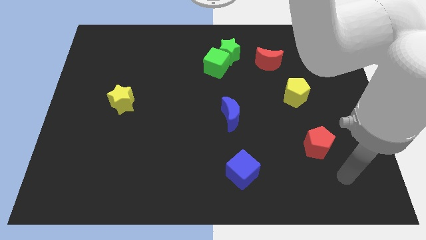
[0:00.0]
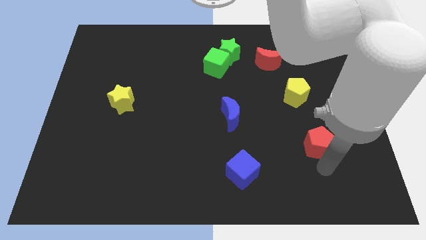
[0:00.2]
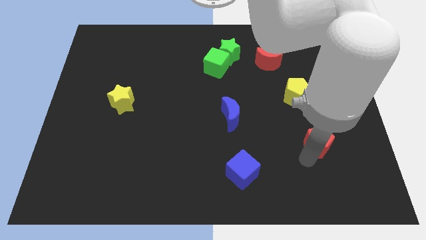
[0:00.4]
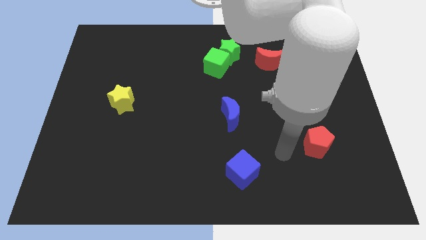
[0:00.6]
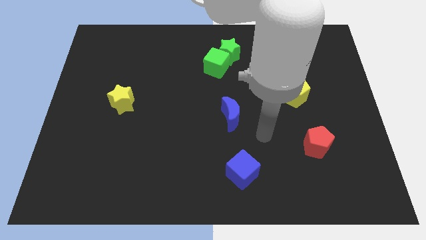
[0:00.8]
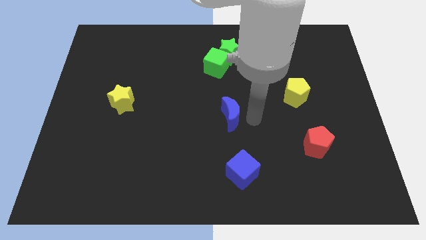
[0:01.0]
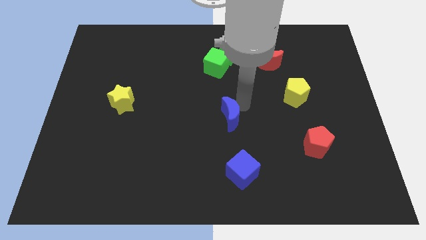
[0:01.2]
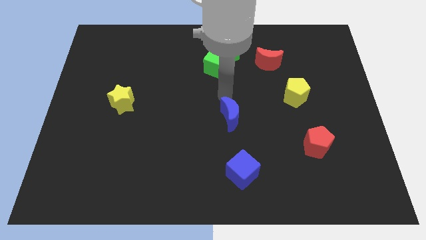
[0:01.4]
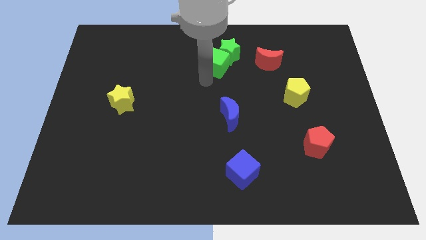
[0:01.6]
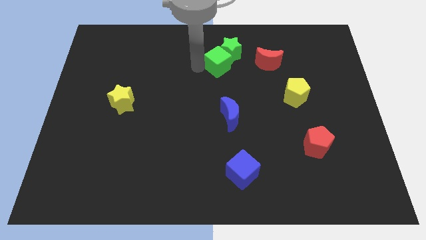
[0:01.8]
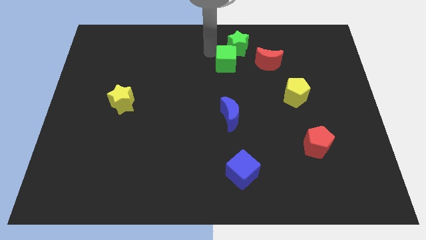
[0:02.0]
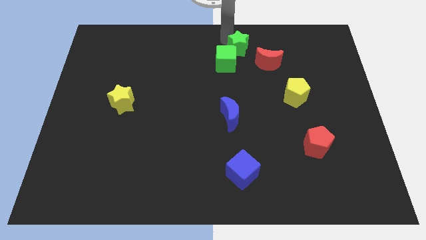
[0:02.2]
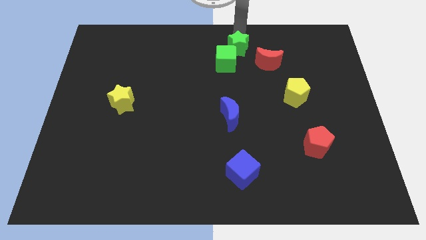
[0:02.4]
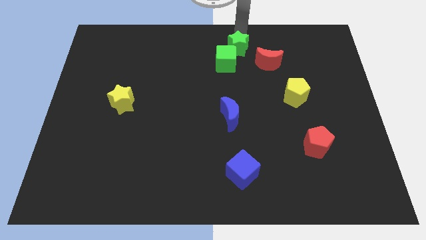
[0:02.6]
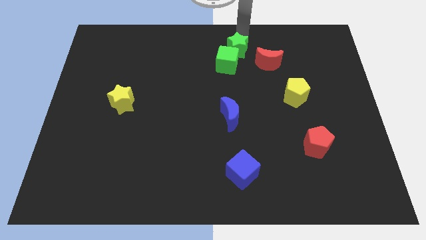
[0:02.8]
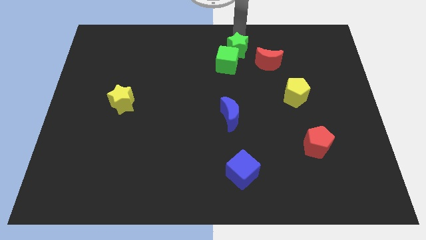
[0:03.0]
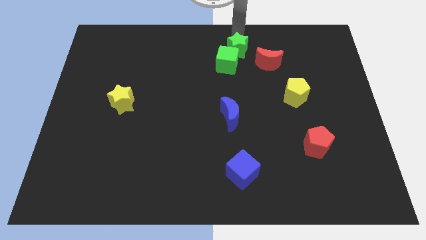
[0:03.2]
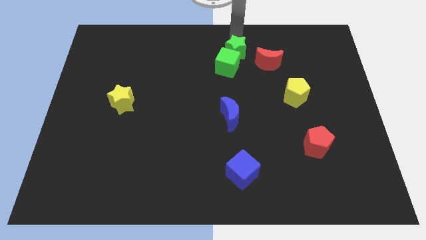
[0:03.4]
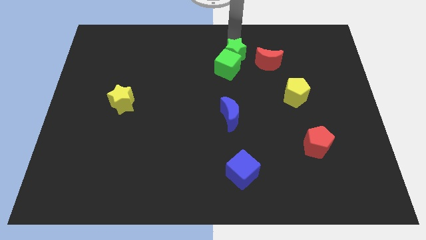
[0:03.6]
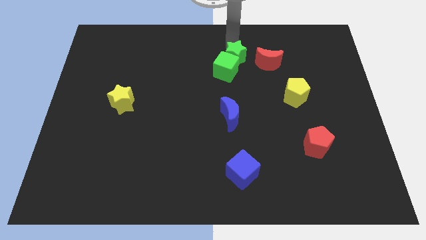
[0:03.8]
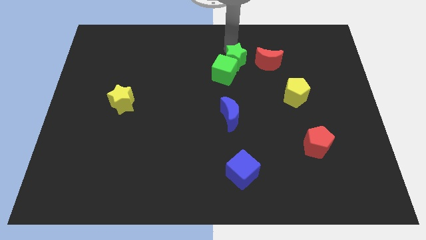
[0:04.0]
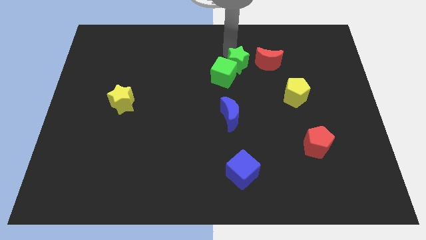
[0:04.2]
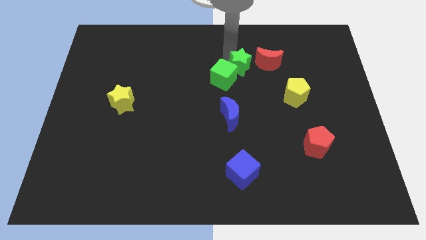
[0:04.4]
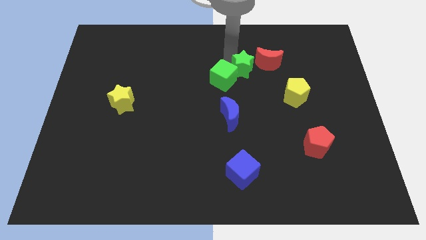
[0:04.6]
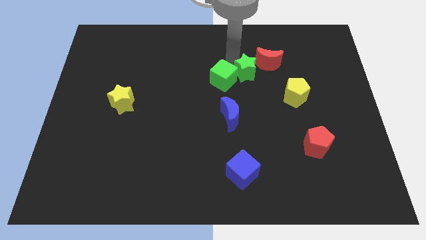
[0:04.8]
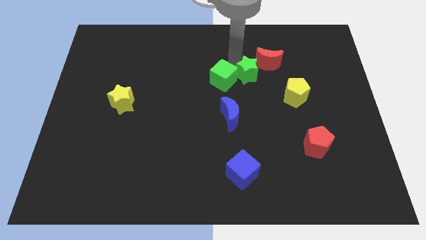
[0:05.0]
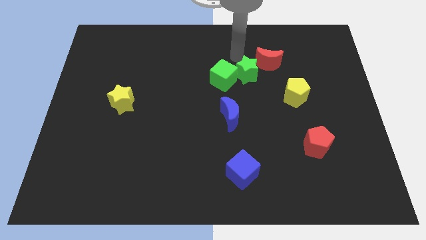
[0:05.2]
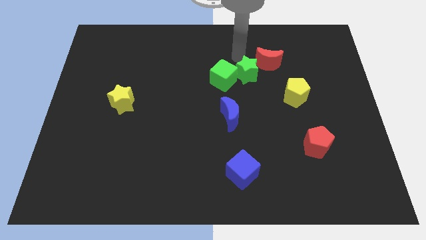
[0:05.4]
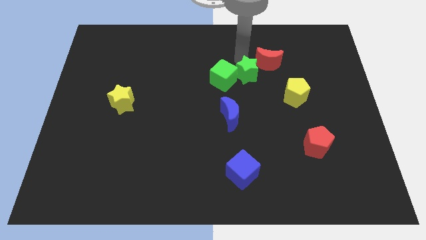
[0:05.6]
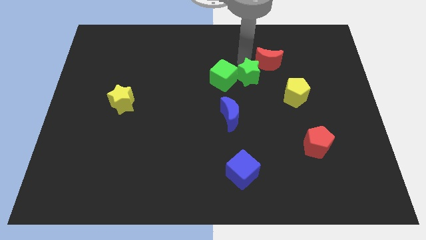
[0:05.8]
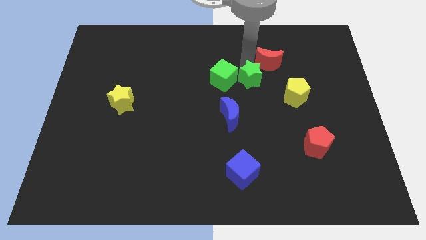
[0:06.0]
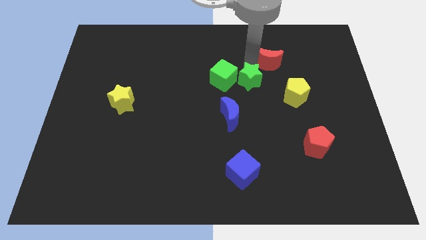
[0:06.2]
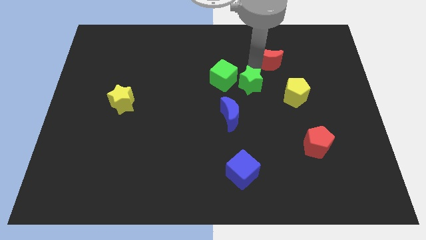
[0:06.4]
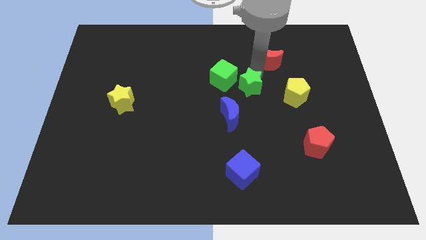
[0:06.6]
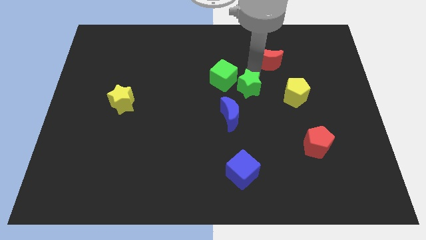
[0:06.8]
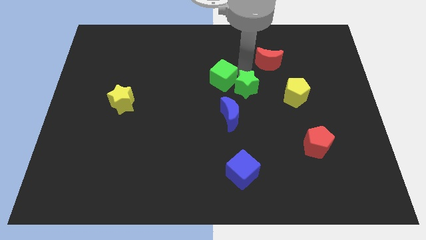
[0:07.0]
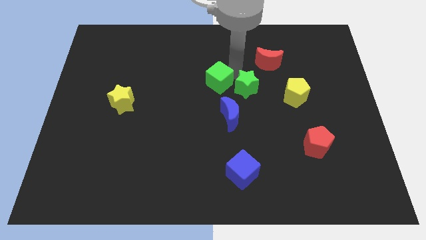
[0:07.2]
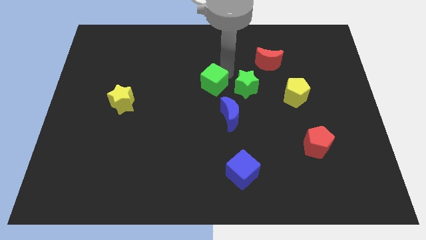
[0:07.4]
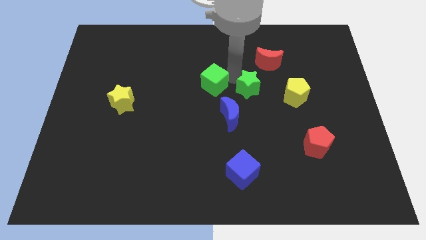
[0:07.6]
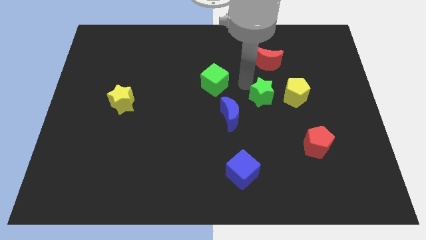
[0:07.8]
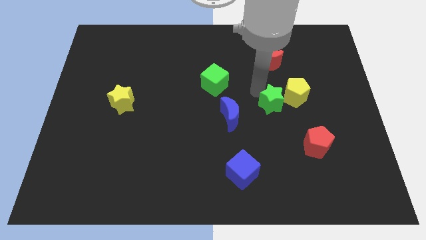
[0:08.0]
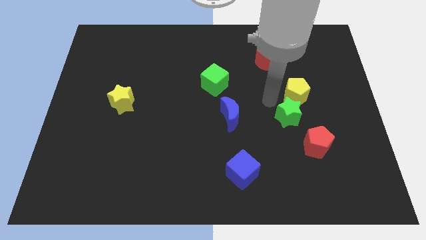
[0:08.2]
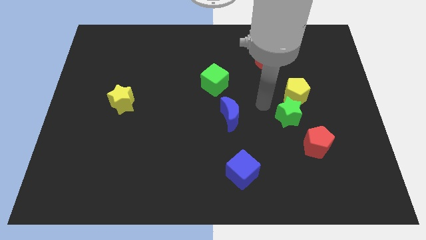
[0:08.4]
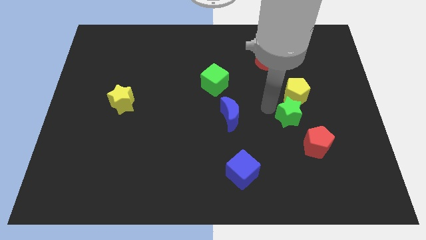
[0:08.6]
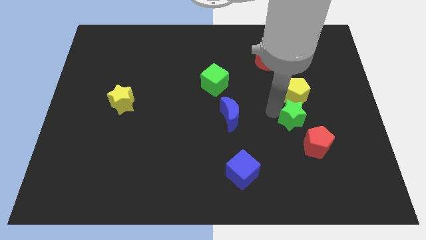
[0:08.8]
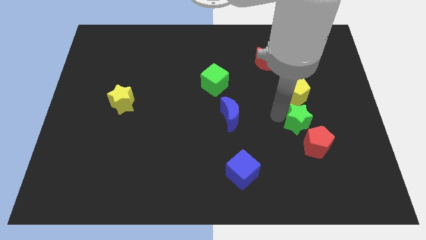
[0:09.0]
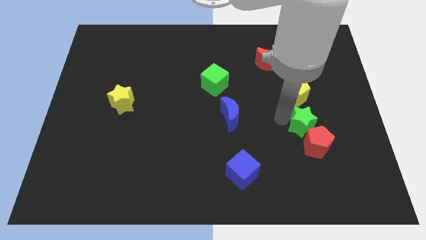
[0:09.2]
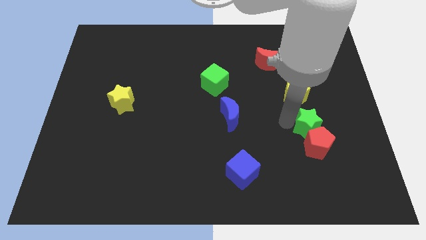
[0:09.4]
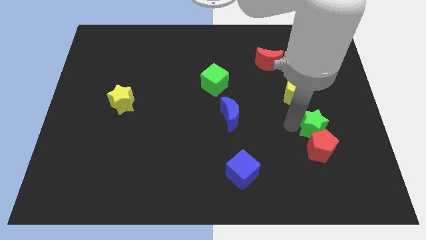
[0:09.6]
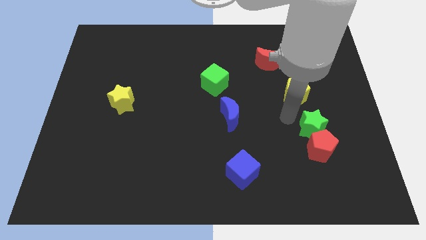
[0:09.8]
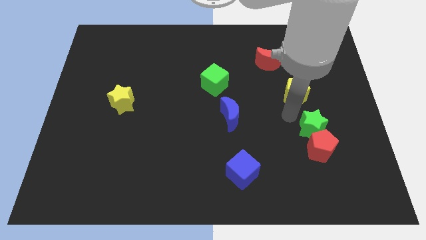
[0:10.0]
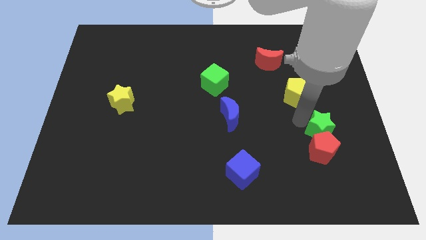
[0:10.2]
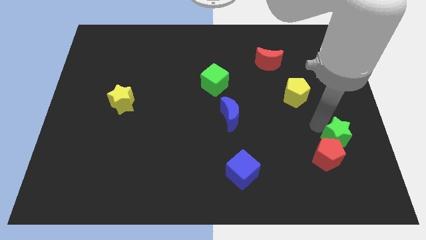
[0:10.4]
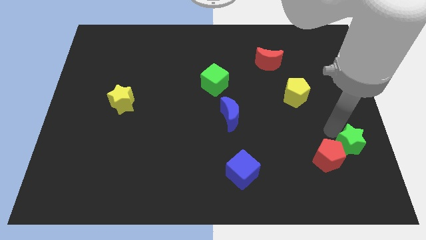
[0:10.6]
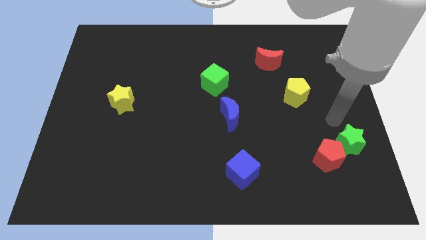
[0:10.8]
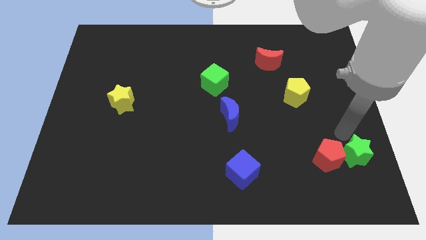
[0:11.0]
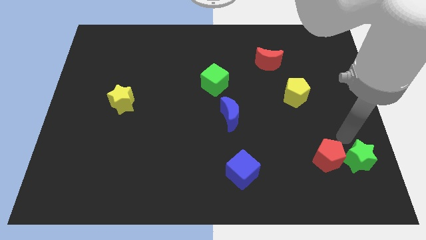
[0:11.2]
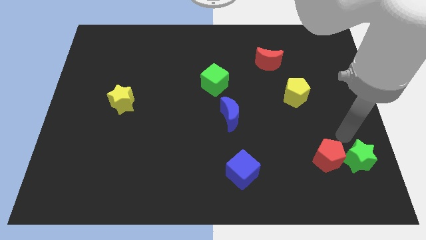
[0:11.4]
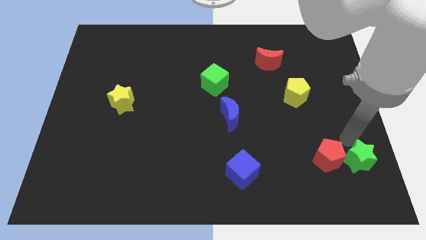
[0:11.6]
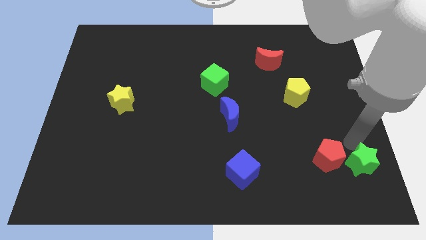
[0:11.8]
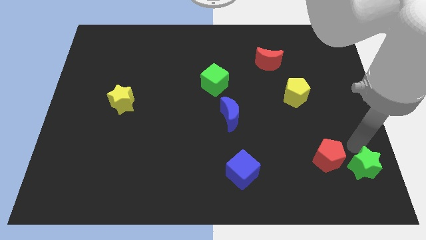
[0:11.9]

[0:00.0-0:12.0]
put the green star to the bottom right corner

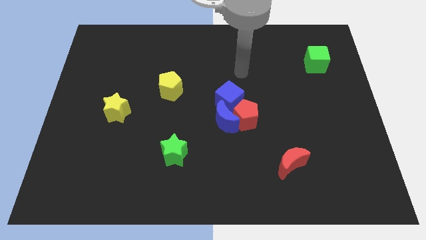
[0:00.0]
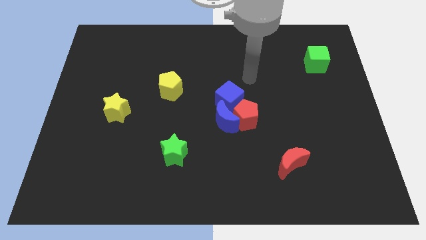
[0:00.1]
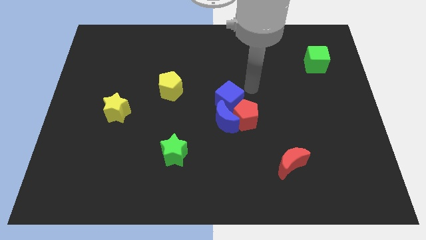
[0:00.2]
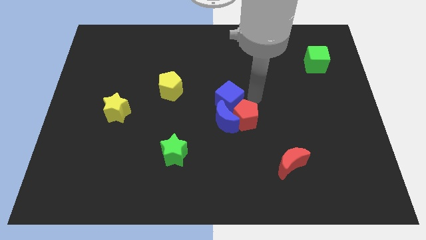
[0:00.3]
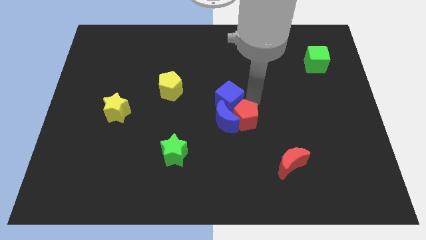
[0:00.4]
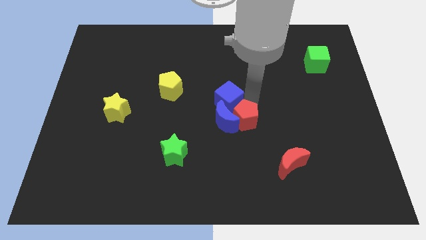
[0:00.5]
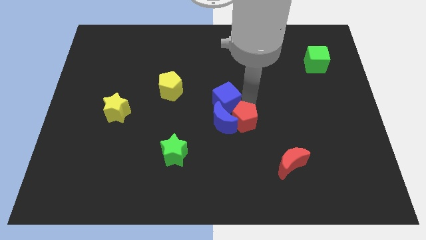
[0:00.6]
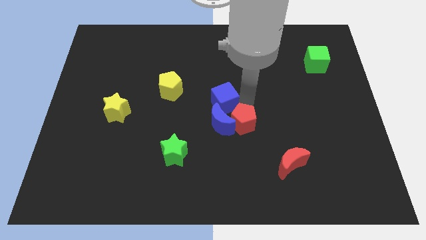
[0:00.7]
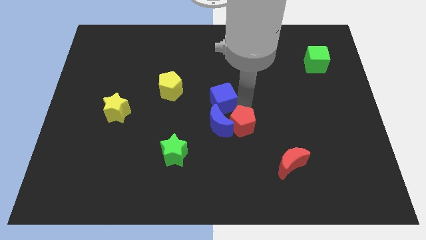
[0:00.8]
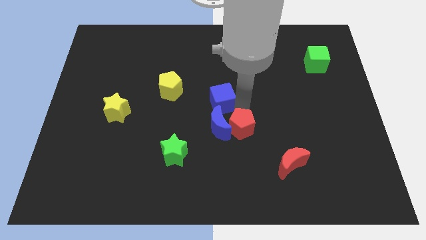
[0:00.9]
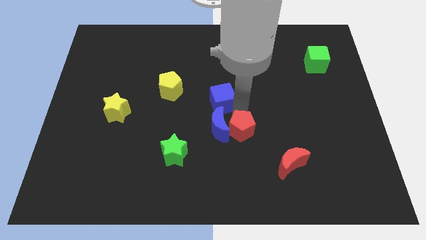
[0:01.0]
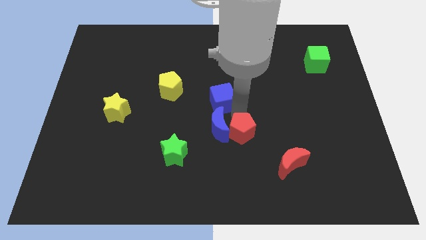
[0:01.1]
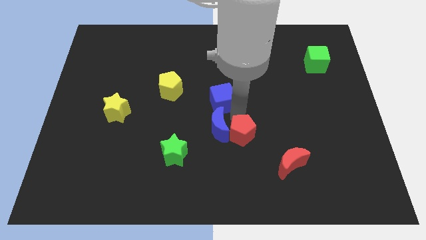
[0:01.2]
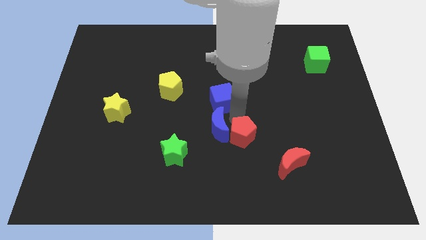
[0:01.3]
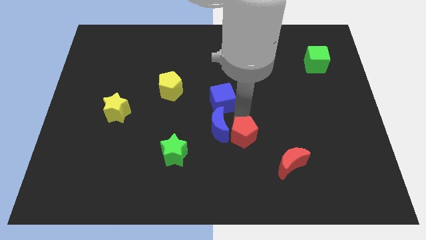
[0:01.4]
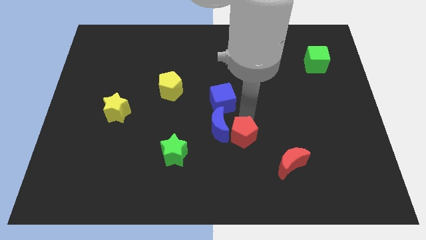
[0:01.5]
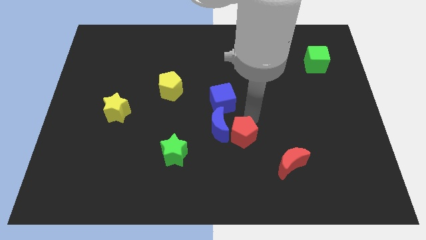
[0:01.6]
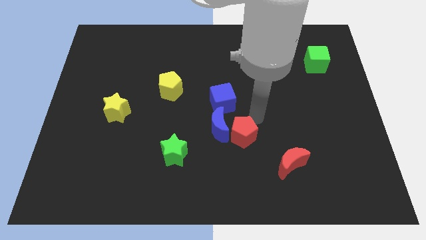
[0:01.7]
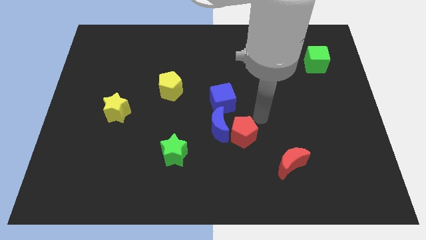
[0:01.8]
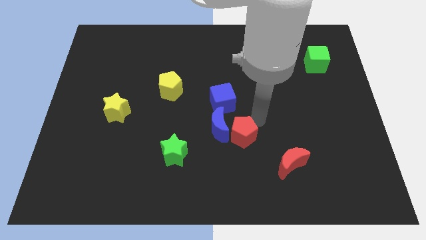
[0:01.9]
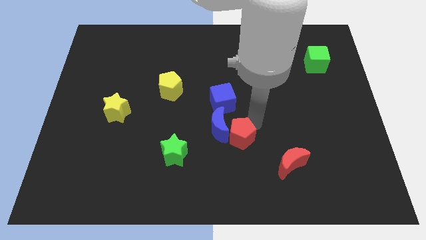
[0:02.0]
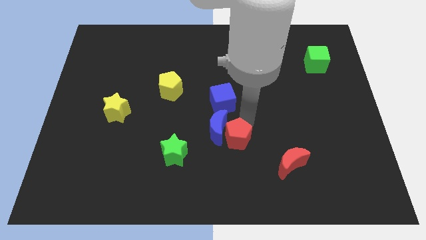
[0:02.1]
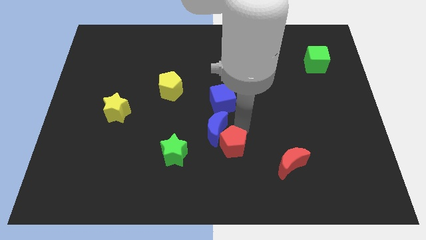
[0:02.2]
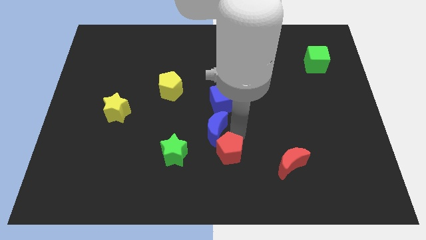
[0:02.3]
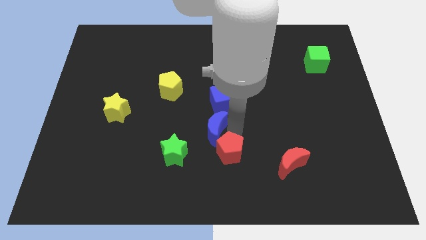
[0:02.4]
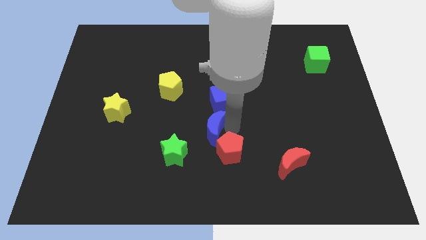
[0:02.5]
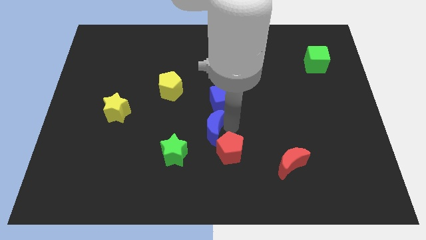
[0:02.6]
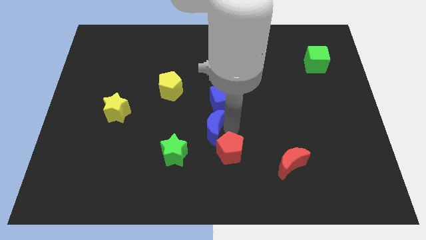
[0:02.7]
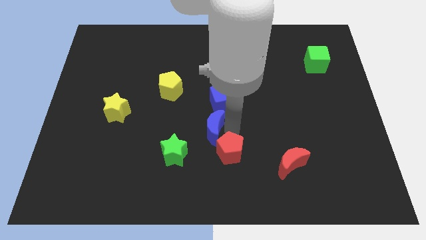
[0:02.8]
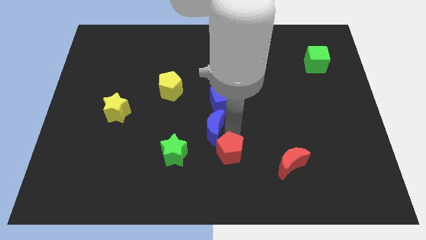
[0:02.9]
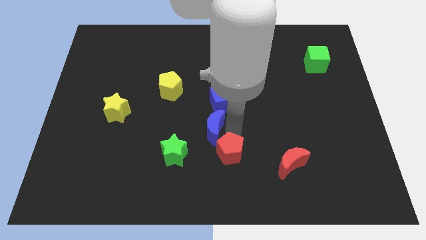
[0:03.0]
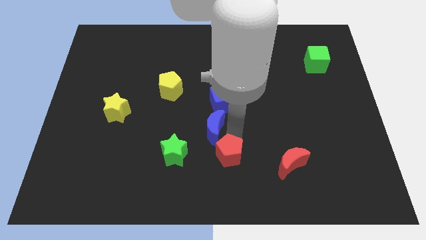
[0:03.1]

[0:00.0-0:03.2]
put the red pentagon to the bottom side
